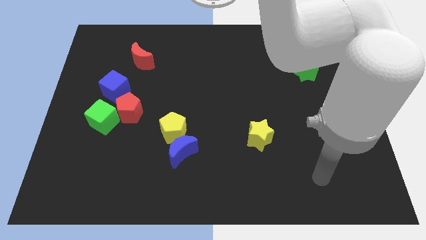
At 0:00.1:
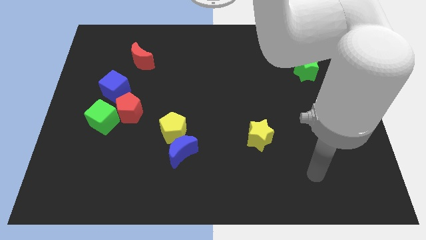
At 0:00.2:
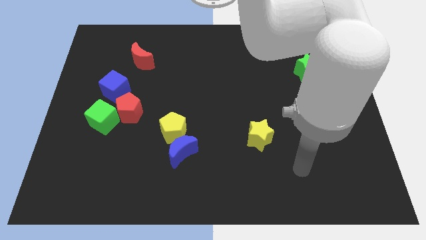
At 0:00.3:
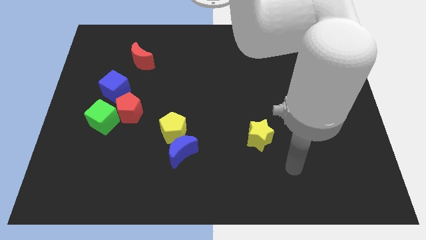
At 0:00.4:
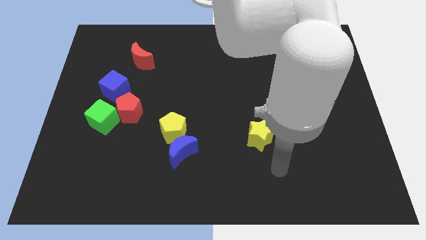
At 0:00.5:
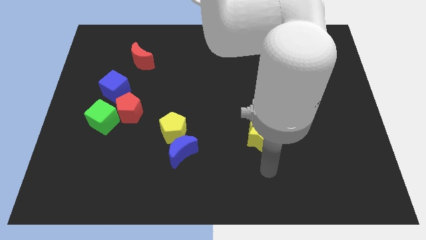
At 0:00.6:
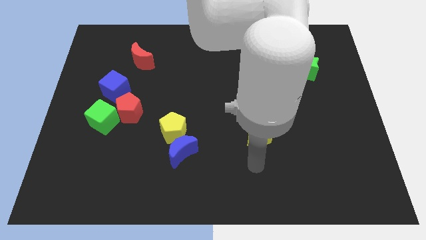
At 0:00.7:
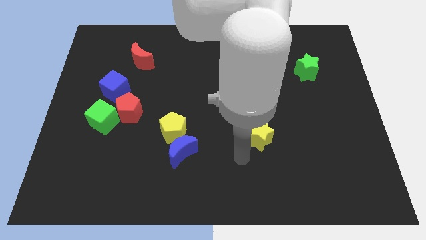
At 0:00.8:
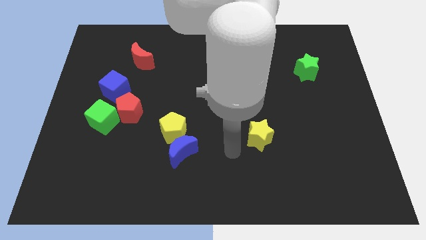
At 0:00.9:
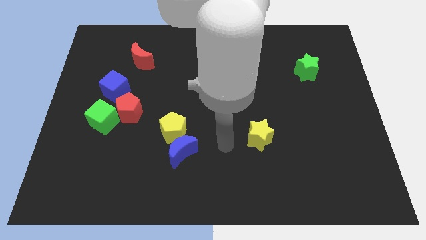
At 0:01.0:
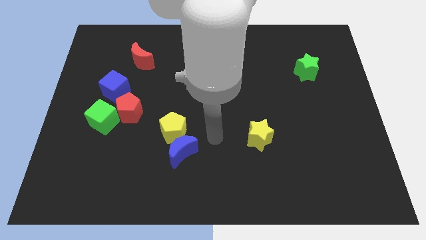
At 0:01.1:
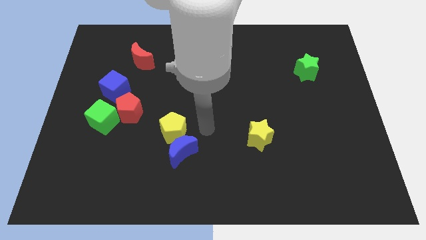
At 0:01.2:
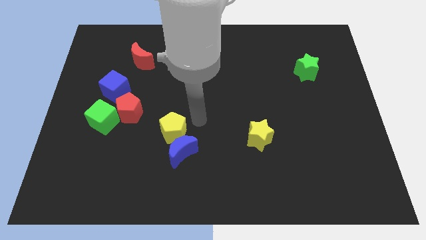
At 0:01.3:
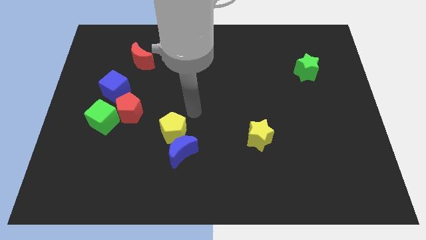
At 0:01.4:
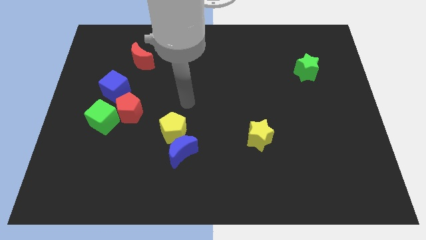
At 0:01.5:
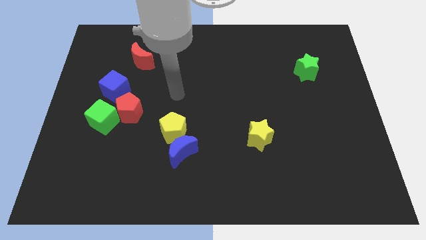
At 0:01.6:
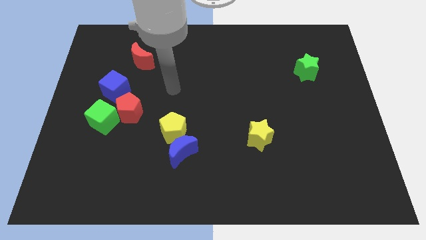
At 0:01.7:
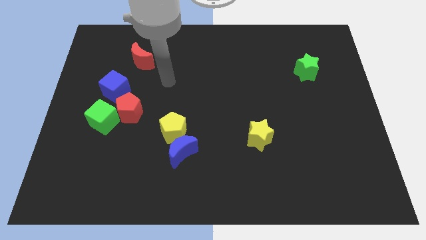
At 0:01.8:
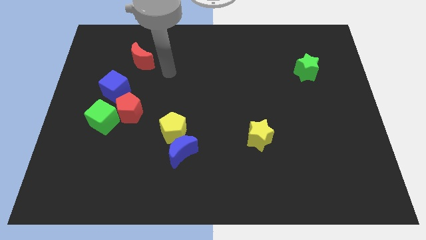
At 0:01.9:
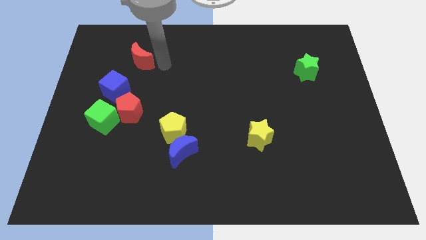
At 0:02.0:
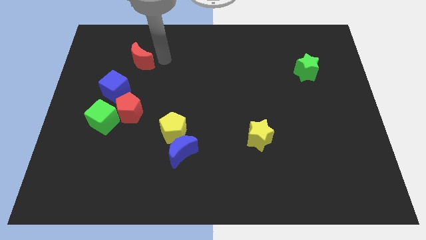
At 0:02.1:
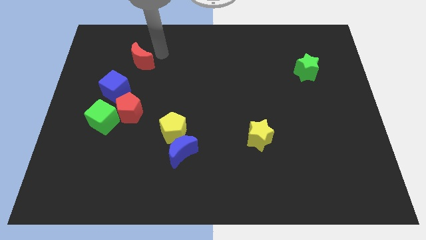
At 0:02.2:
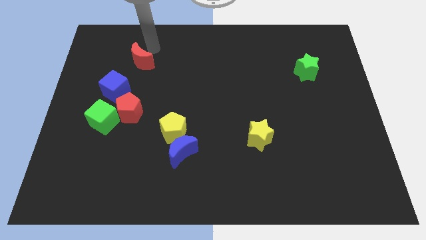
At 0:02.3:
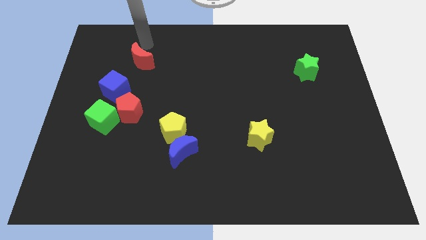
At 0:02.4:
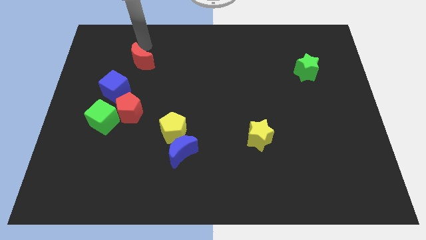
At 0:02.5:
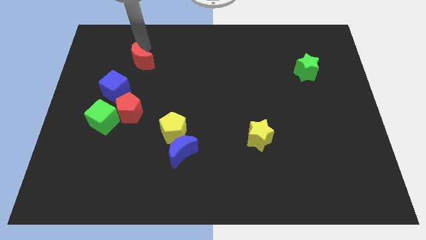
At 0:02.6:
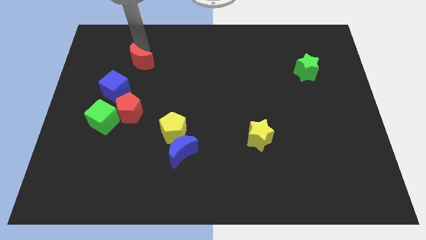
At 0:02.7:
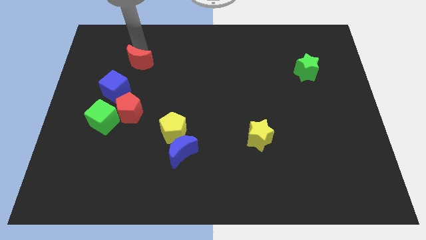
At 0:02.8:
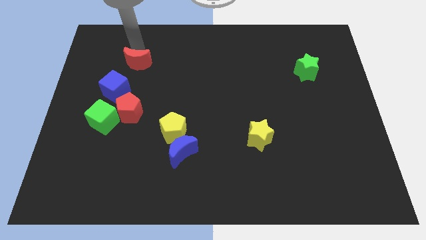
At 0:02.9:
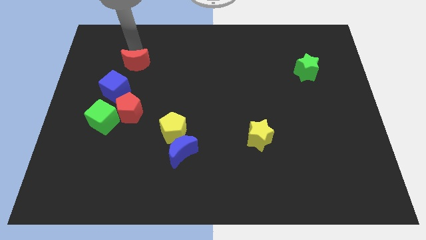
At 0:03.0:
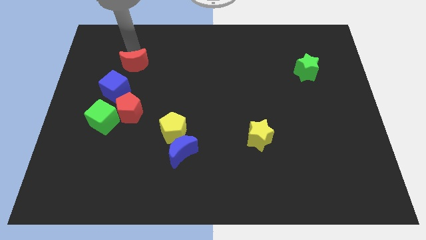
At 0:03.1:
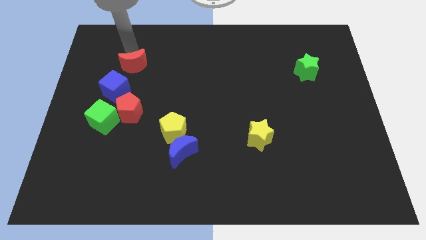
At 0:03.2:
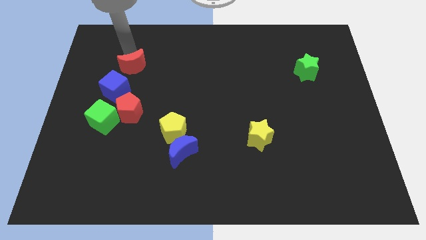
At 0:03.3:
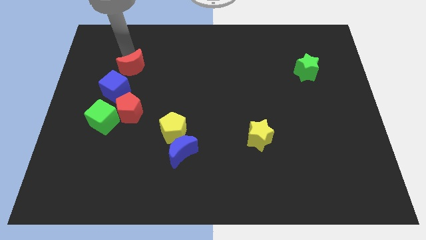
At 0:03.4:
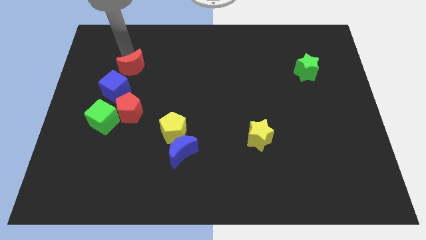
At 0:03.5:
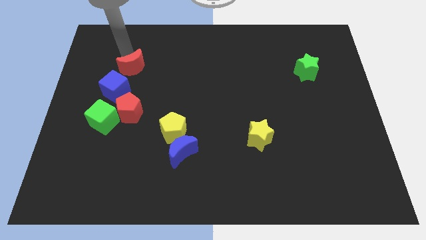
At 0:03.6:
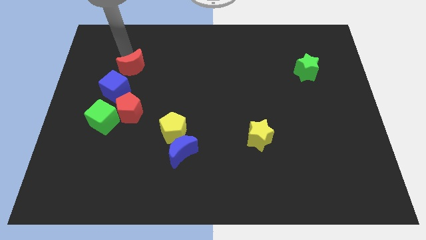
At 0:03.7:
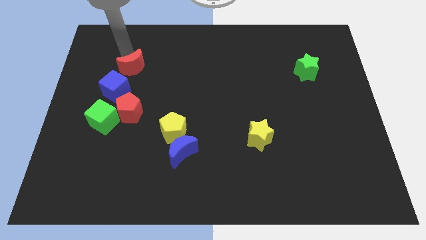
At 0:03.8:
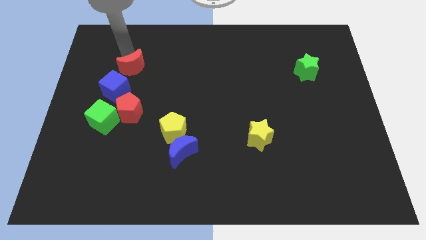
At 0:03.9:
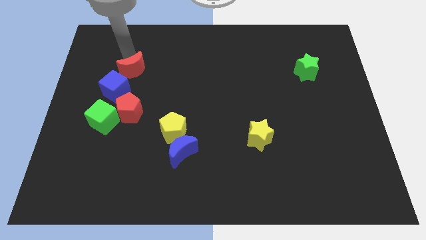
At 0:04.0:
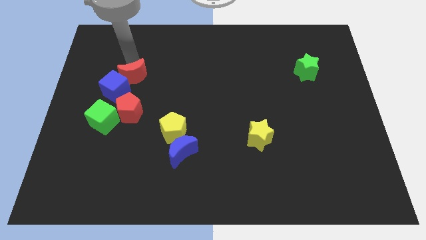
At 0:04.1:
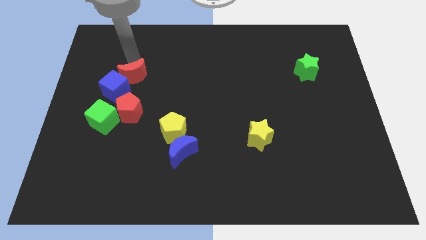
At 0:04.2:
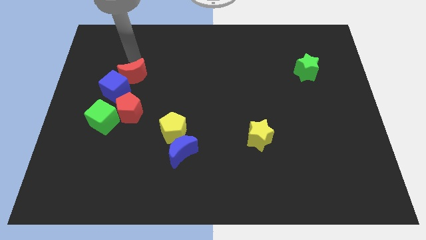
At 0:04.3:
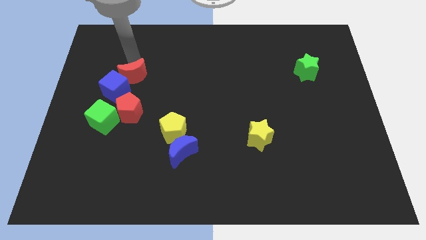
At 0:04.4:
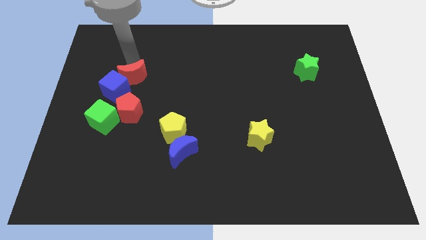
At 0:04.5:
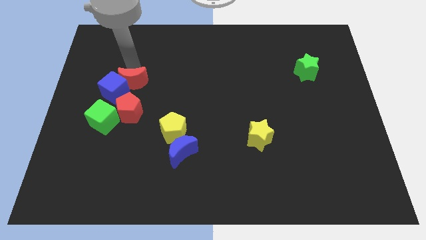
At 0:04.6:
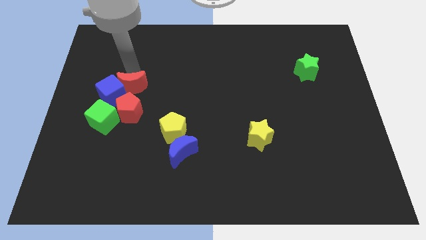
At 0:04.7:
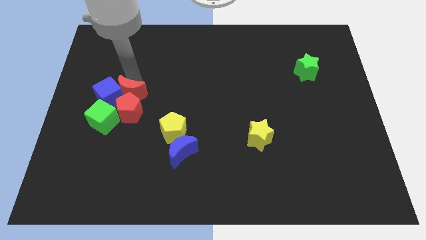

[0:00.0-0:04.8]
slide the red moon next to the red pentagon

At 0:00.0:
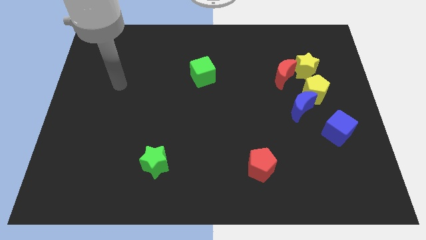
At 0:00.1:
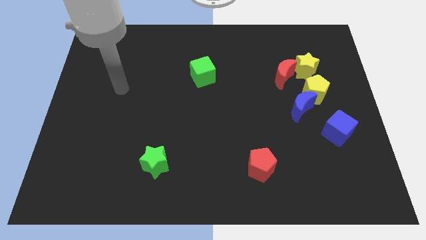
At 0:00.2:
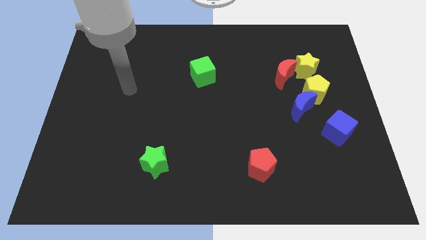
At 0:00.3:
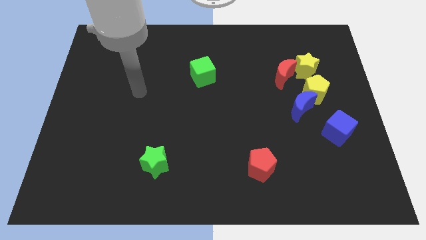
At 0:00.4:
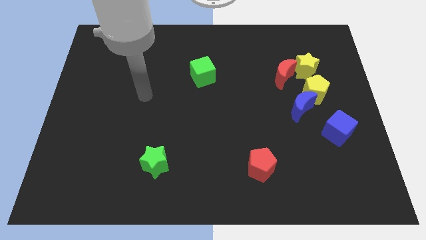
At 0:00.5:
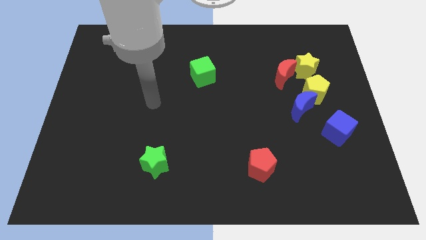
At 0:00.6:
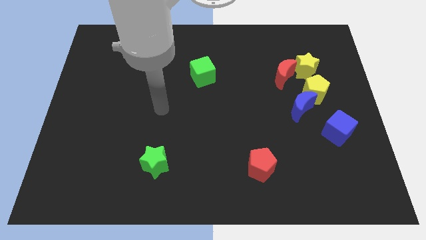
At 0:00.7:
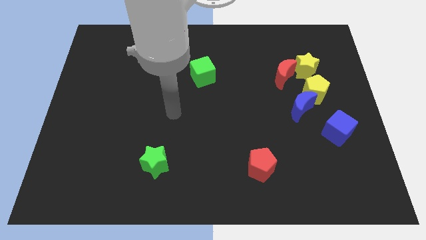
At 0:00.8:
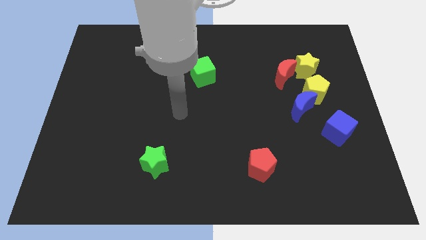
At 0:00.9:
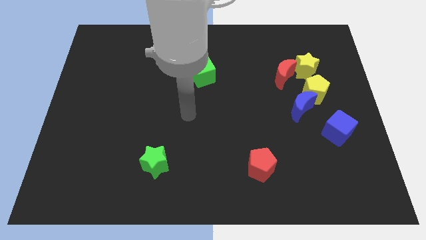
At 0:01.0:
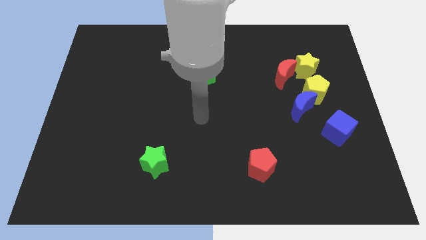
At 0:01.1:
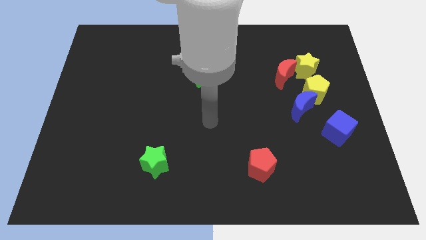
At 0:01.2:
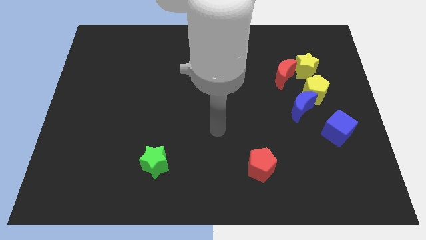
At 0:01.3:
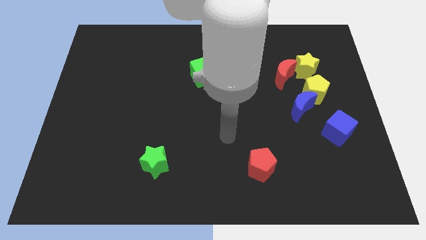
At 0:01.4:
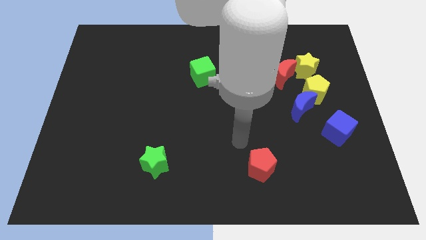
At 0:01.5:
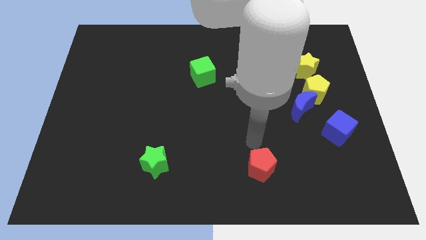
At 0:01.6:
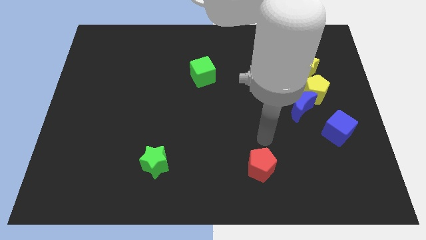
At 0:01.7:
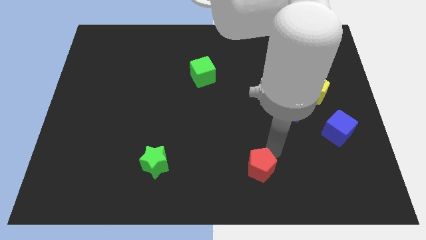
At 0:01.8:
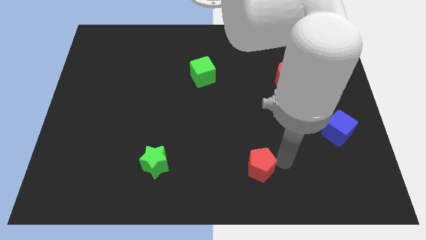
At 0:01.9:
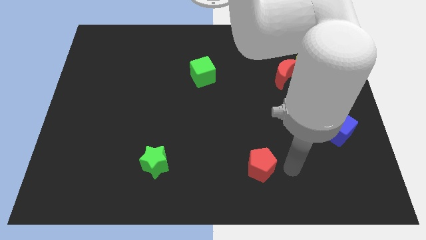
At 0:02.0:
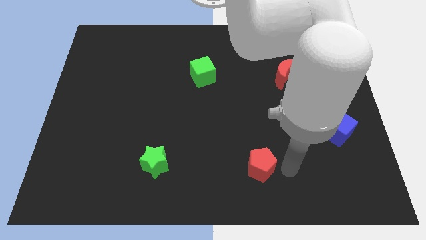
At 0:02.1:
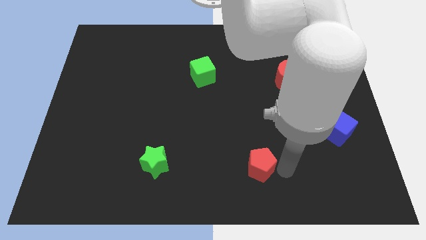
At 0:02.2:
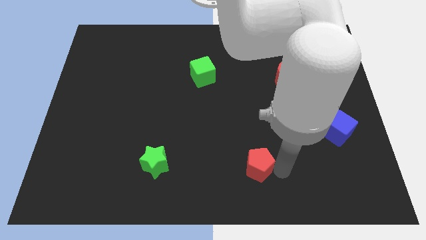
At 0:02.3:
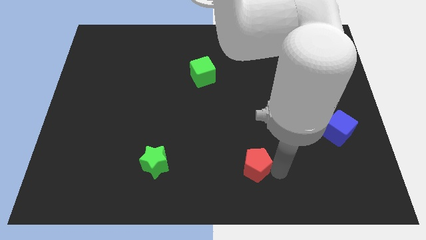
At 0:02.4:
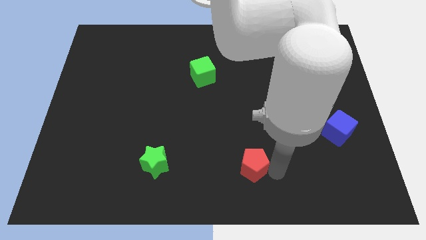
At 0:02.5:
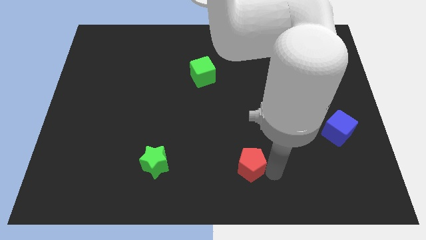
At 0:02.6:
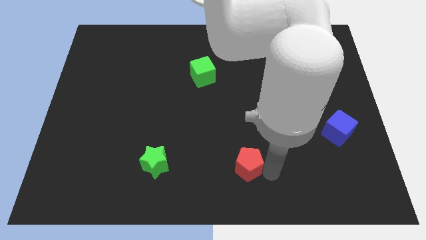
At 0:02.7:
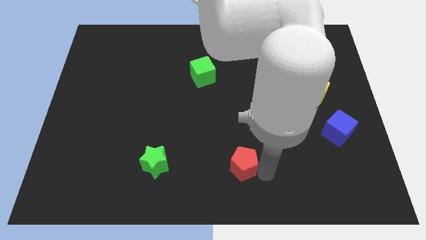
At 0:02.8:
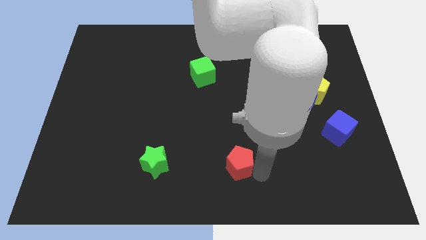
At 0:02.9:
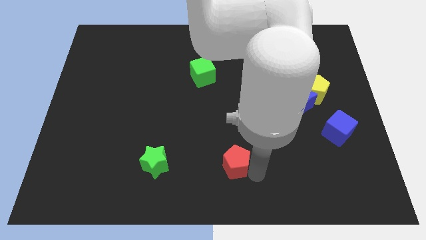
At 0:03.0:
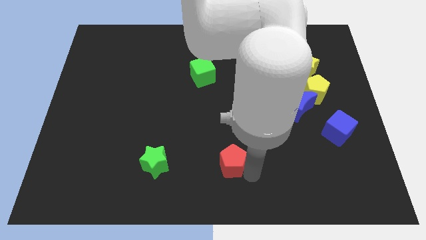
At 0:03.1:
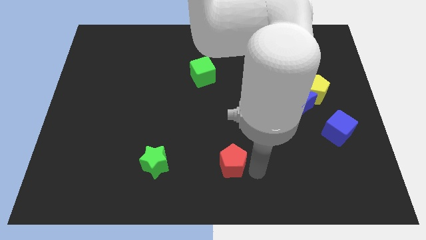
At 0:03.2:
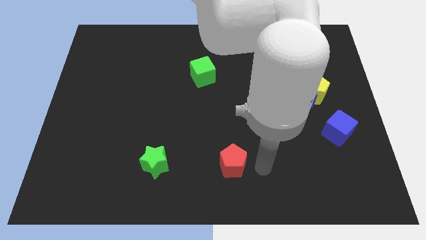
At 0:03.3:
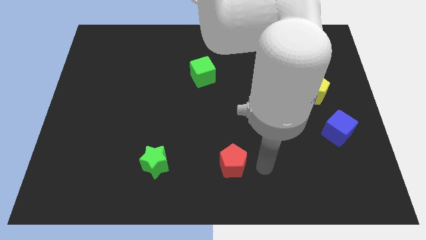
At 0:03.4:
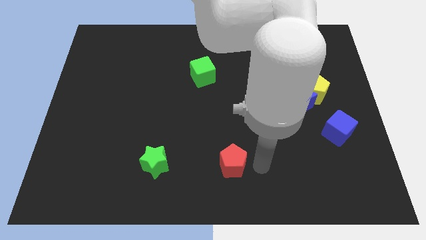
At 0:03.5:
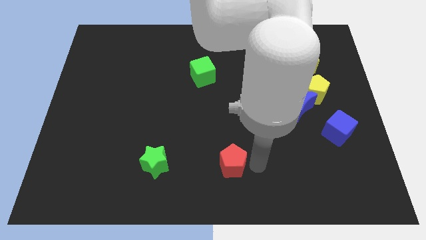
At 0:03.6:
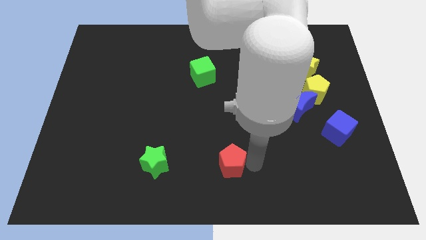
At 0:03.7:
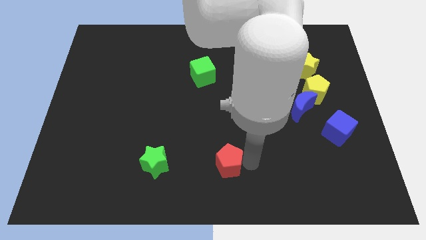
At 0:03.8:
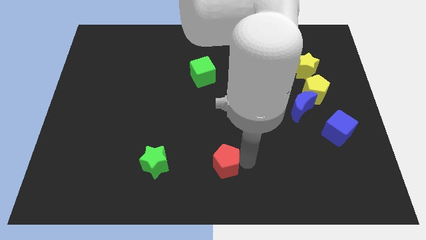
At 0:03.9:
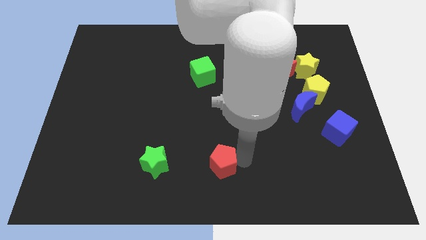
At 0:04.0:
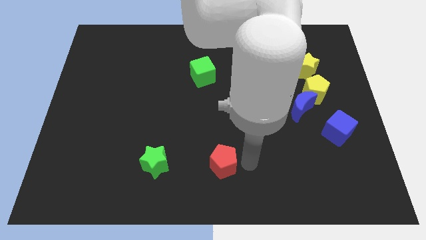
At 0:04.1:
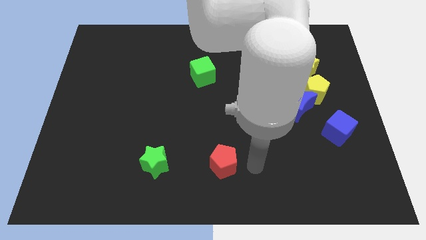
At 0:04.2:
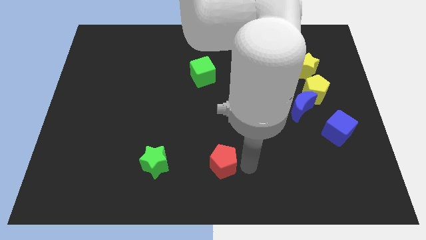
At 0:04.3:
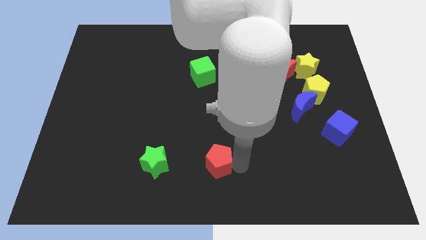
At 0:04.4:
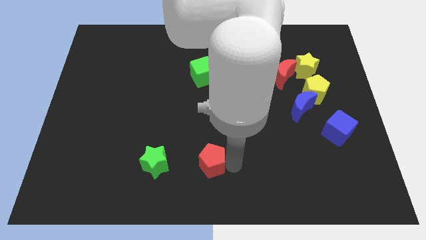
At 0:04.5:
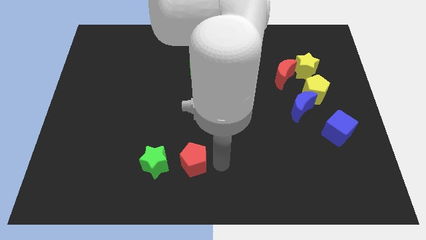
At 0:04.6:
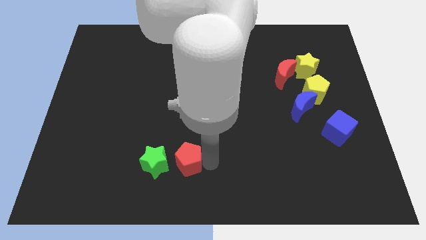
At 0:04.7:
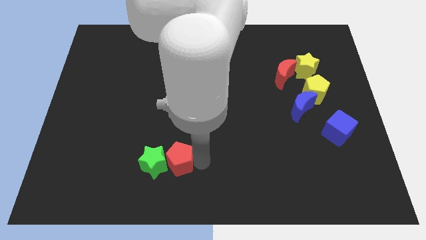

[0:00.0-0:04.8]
move the red pentagon towards the green star
